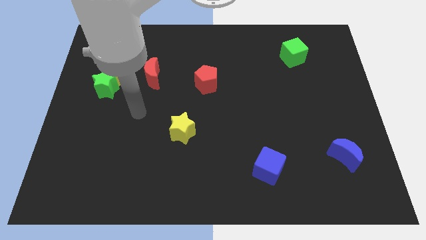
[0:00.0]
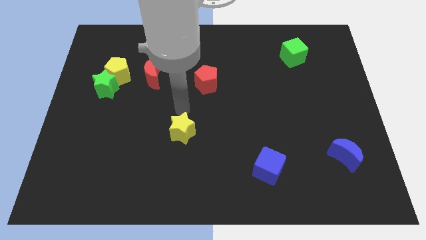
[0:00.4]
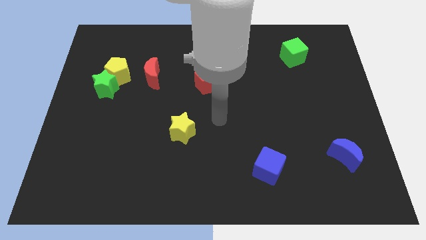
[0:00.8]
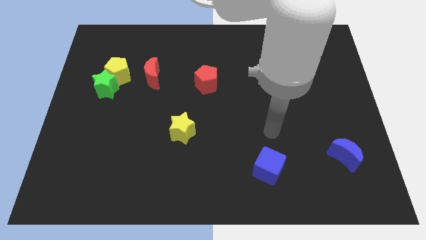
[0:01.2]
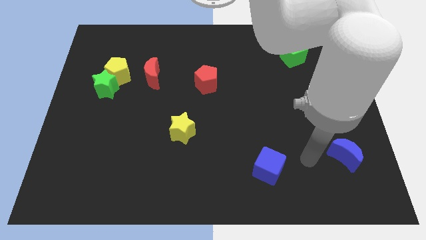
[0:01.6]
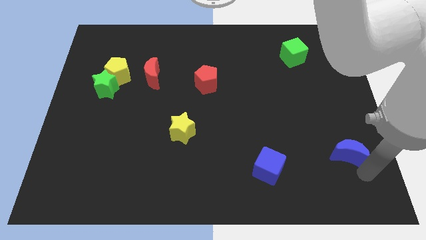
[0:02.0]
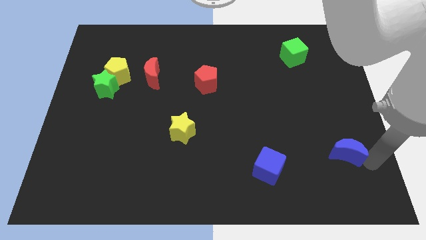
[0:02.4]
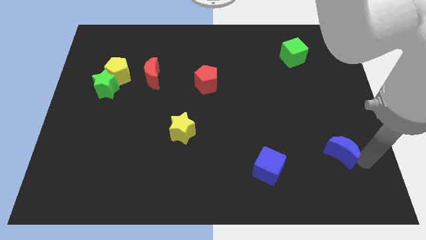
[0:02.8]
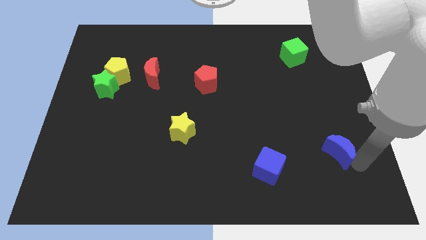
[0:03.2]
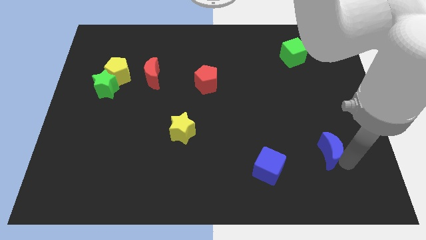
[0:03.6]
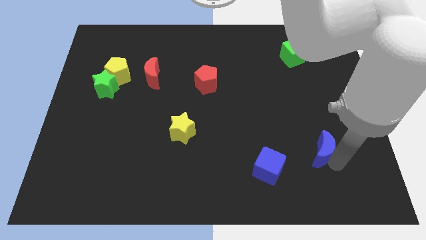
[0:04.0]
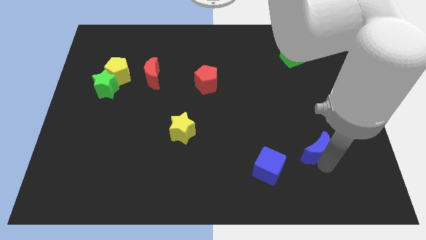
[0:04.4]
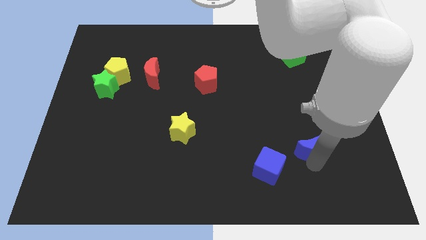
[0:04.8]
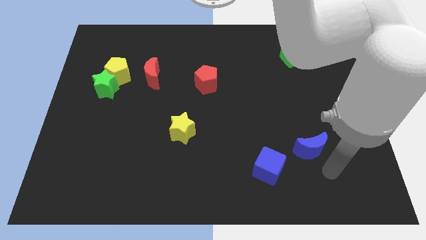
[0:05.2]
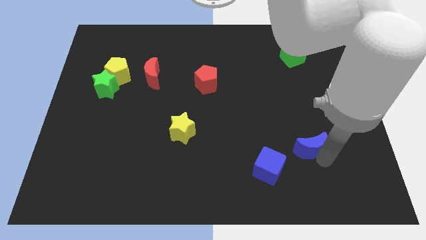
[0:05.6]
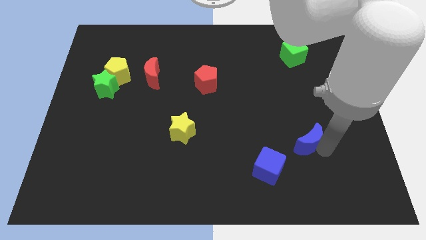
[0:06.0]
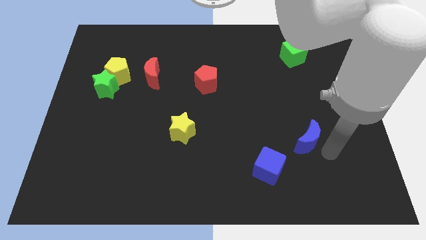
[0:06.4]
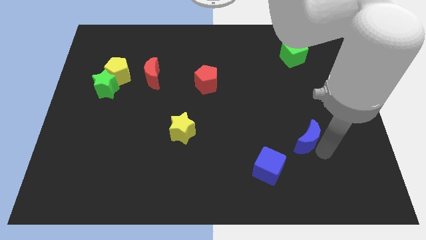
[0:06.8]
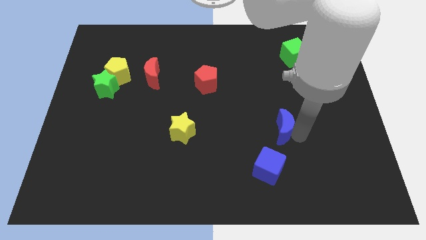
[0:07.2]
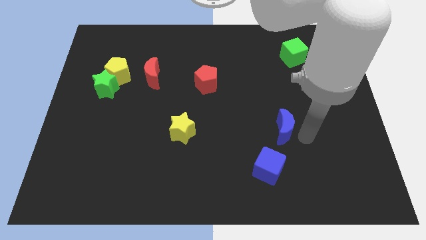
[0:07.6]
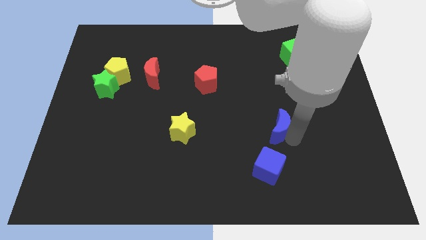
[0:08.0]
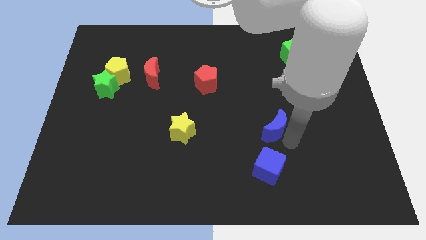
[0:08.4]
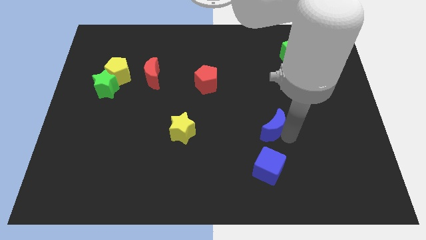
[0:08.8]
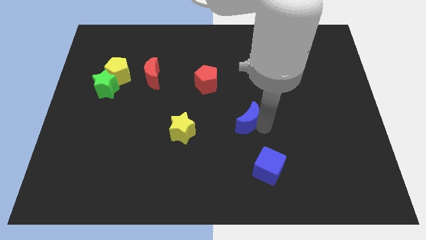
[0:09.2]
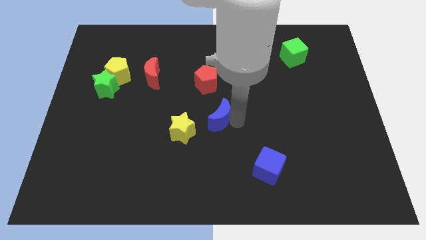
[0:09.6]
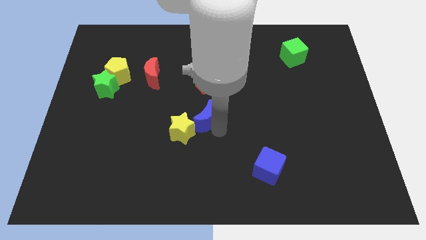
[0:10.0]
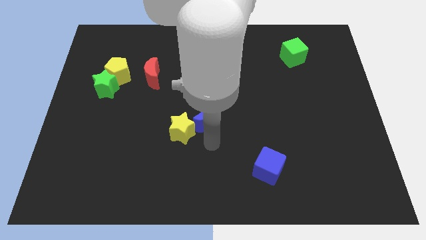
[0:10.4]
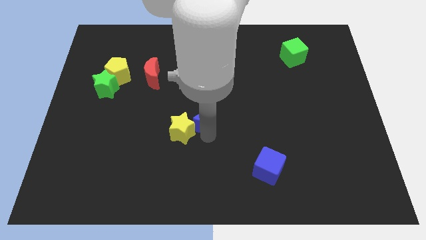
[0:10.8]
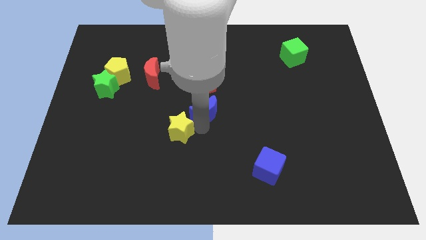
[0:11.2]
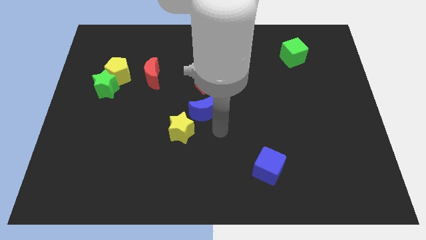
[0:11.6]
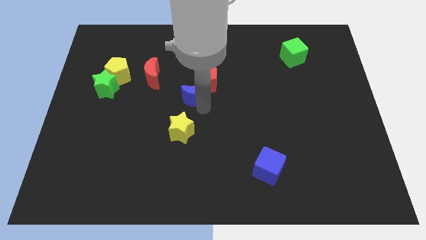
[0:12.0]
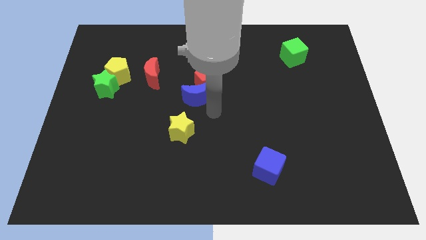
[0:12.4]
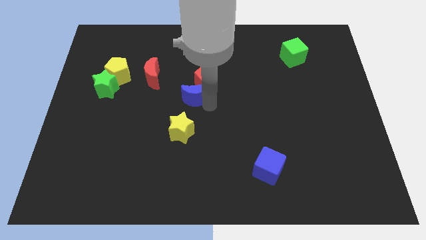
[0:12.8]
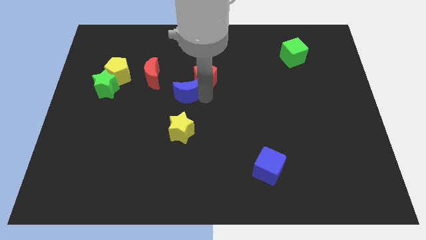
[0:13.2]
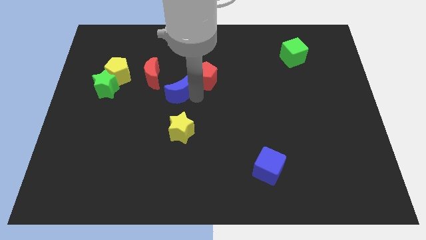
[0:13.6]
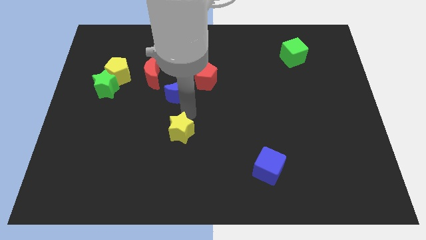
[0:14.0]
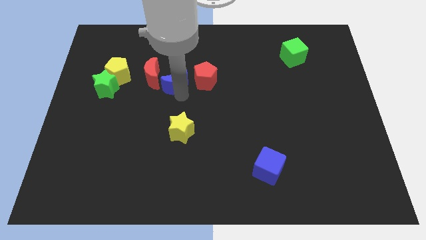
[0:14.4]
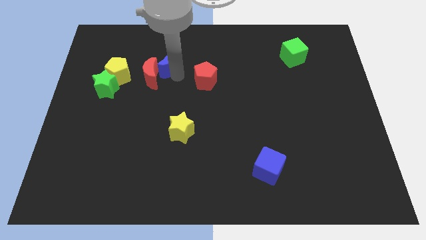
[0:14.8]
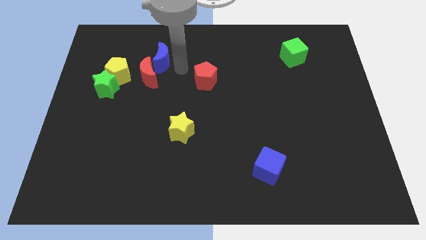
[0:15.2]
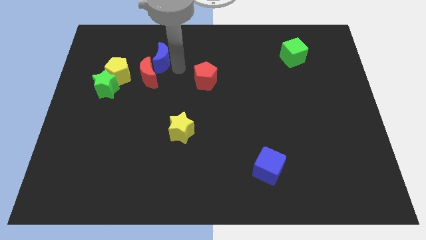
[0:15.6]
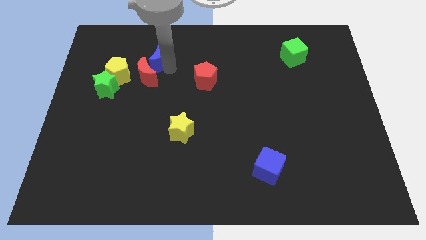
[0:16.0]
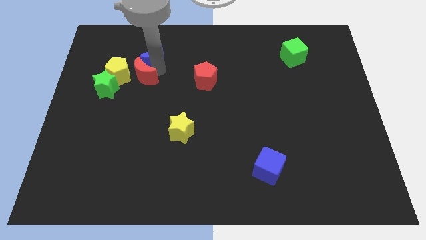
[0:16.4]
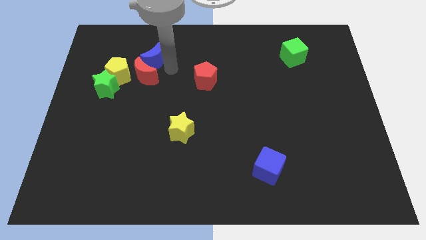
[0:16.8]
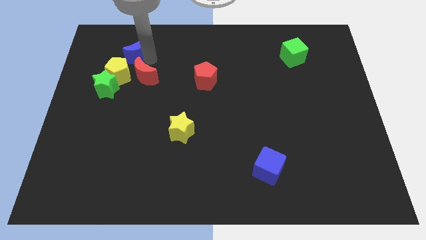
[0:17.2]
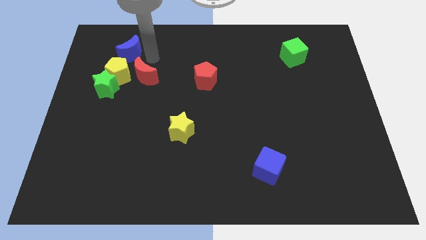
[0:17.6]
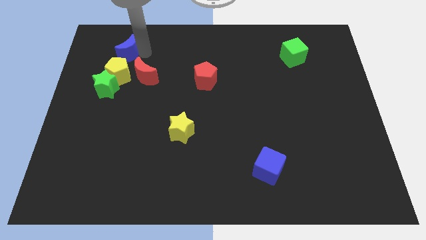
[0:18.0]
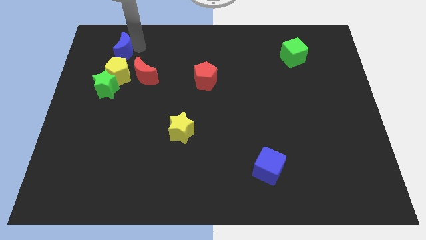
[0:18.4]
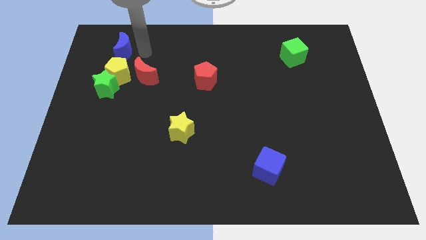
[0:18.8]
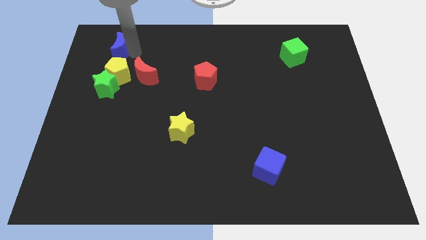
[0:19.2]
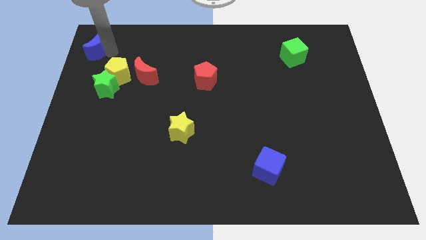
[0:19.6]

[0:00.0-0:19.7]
slide the blue moon to the top left

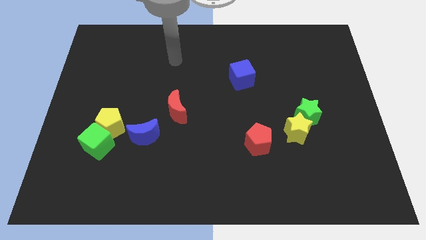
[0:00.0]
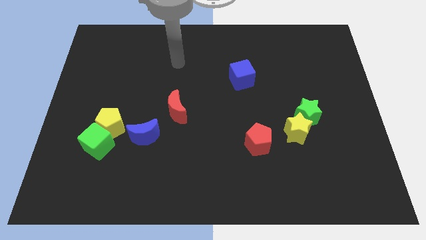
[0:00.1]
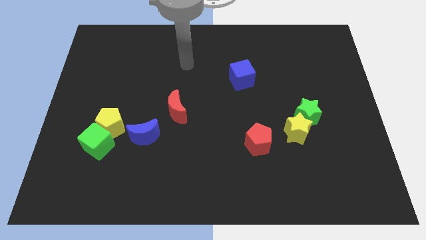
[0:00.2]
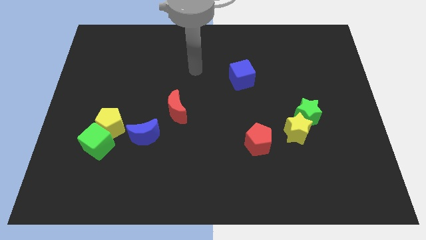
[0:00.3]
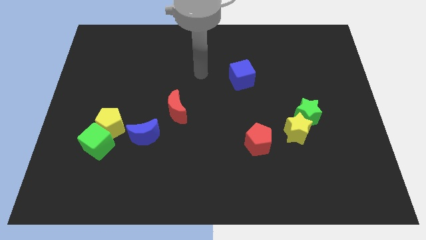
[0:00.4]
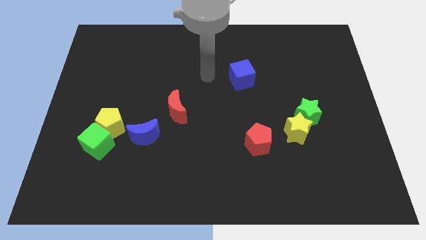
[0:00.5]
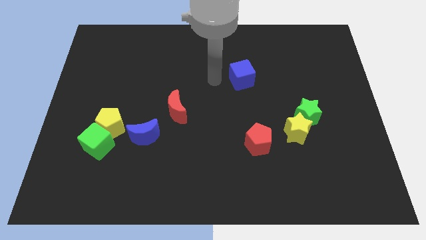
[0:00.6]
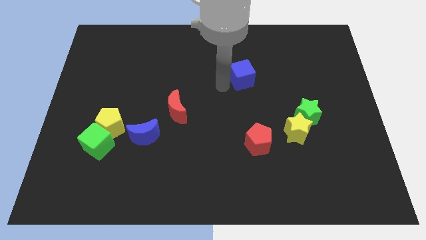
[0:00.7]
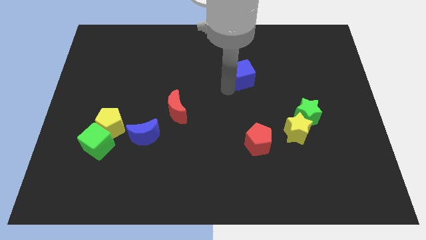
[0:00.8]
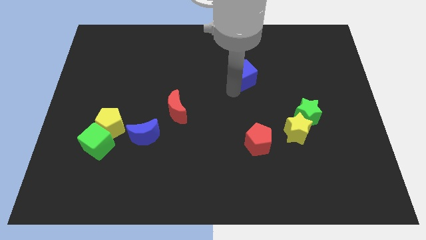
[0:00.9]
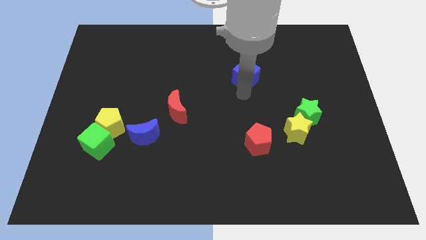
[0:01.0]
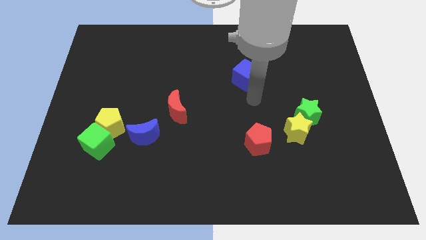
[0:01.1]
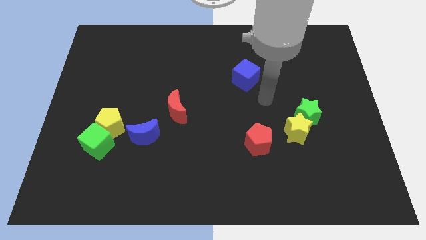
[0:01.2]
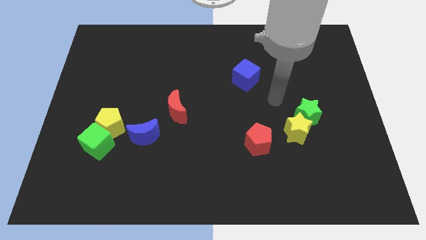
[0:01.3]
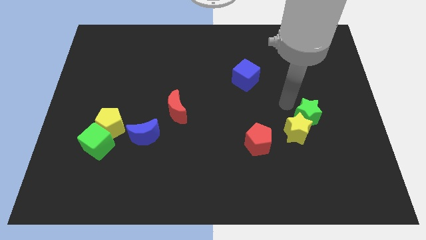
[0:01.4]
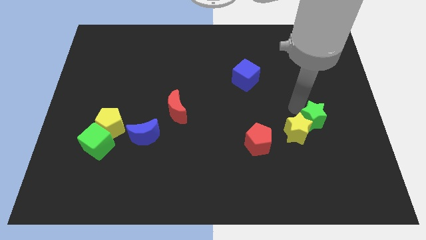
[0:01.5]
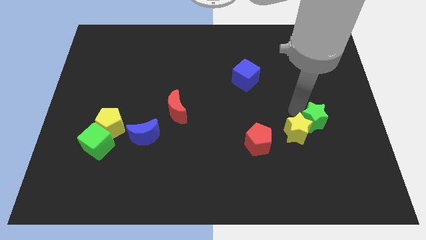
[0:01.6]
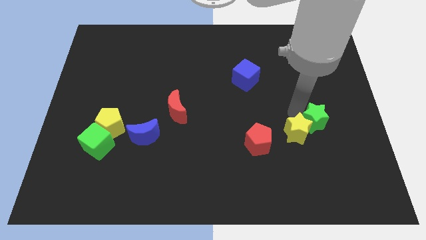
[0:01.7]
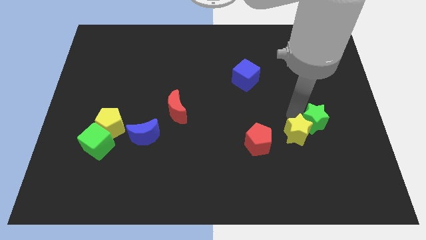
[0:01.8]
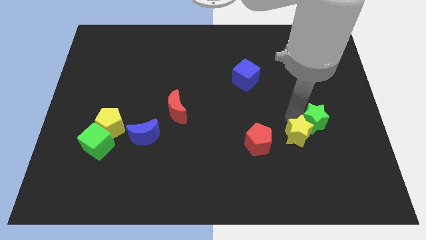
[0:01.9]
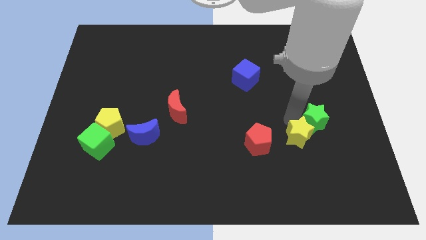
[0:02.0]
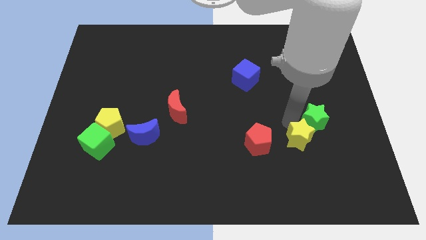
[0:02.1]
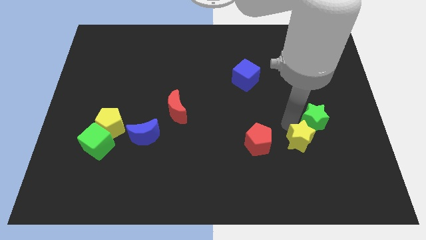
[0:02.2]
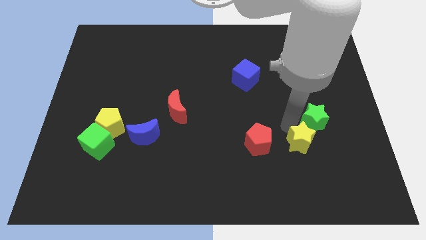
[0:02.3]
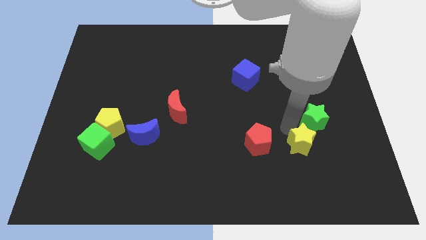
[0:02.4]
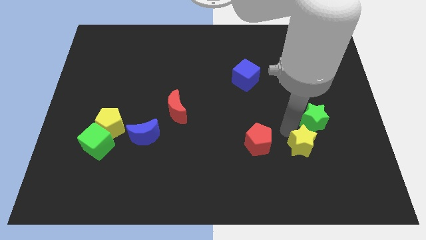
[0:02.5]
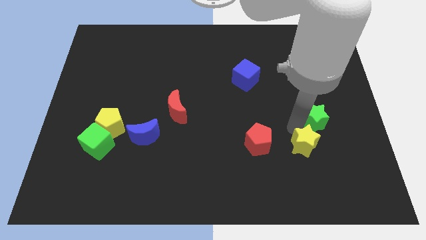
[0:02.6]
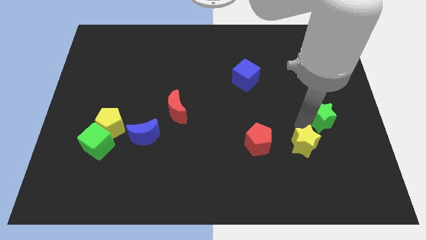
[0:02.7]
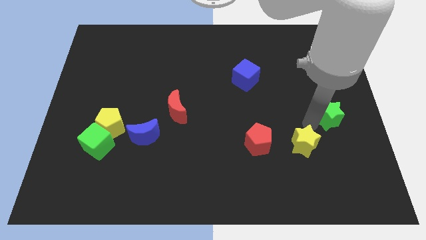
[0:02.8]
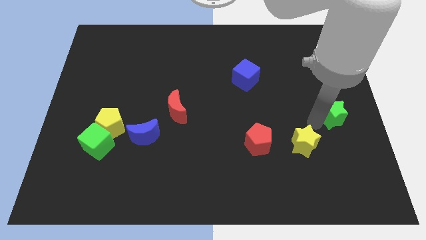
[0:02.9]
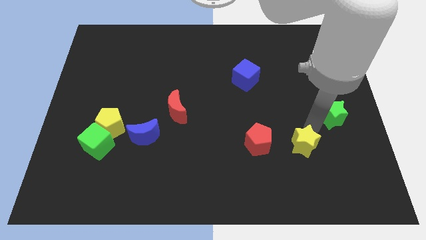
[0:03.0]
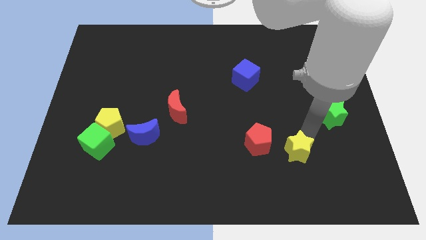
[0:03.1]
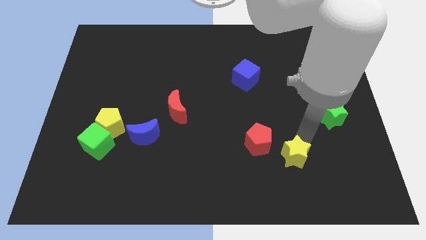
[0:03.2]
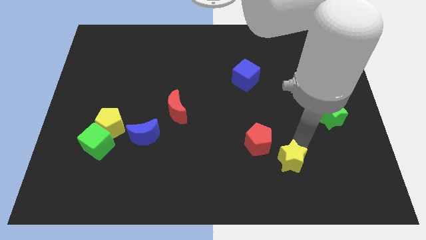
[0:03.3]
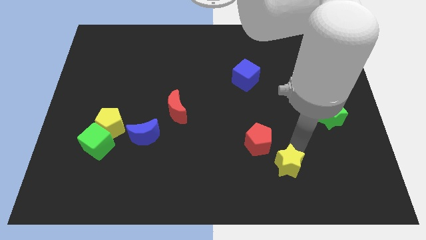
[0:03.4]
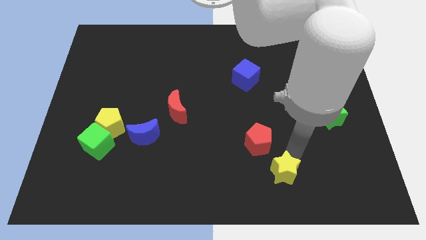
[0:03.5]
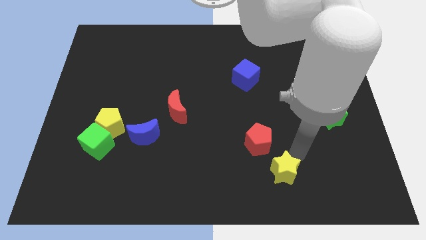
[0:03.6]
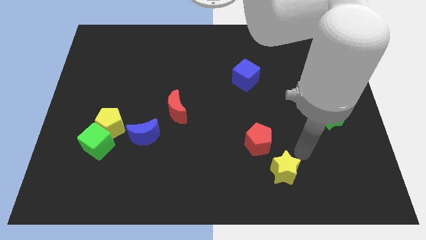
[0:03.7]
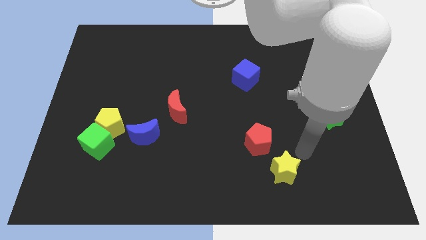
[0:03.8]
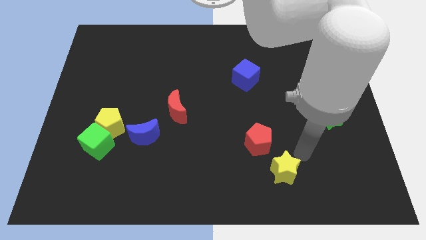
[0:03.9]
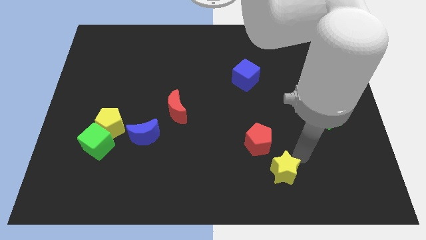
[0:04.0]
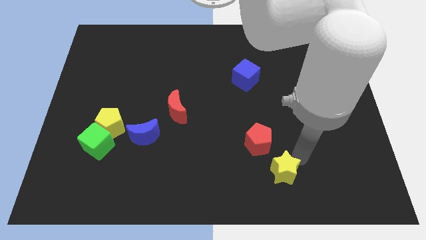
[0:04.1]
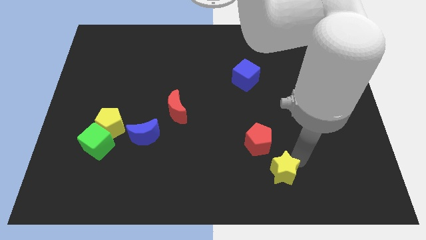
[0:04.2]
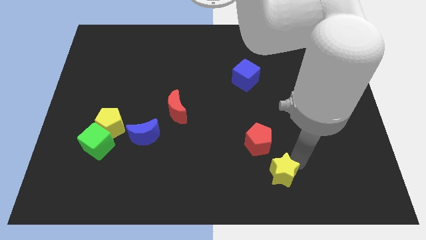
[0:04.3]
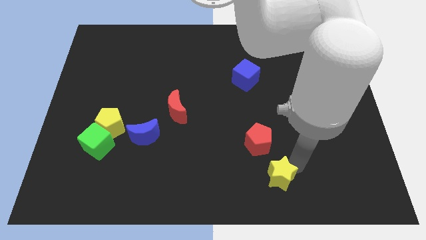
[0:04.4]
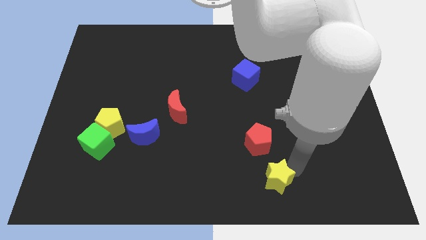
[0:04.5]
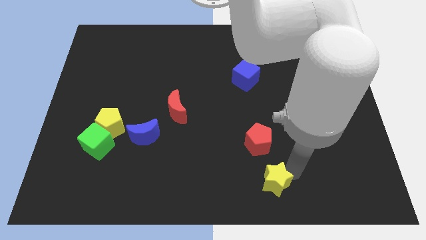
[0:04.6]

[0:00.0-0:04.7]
put the yellow star to the bottom
